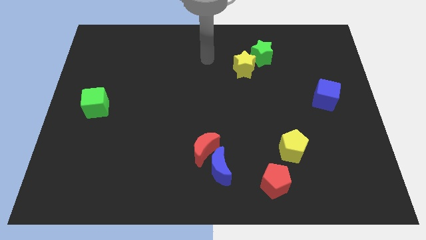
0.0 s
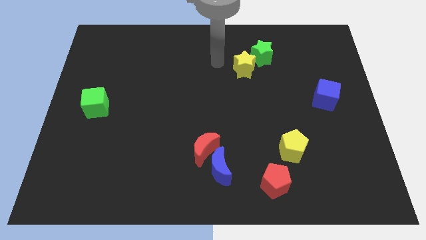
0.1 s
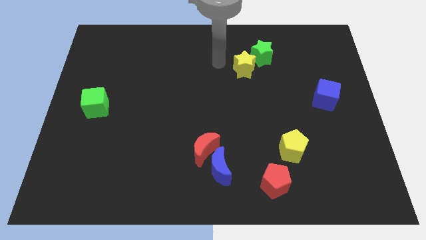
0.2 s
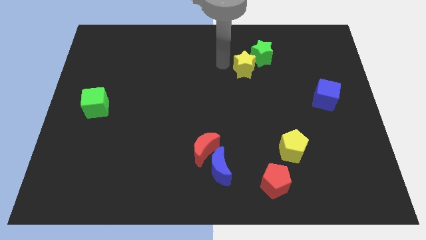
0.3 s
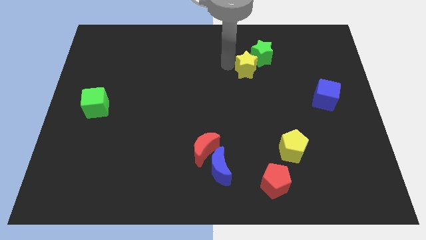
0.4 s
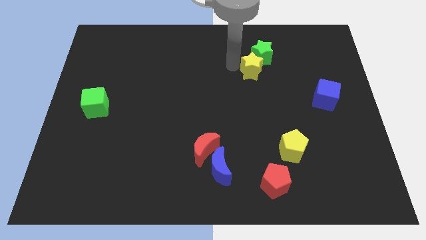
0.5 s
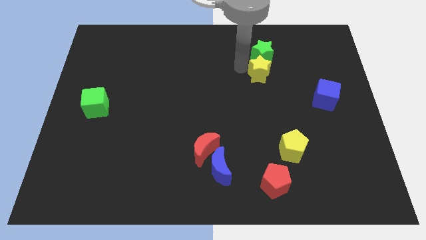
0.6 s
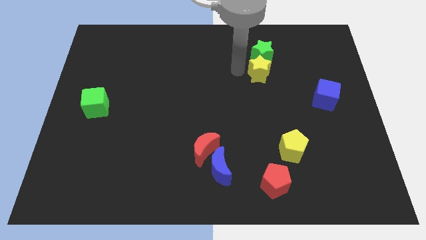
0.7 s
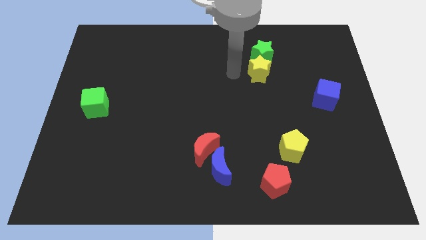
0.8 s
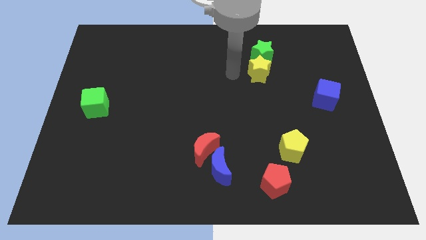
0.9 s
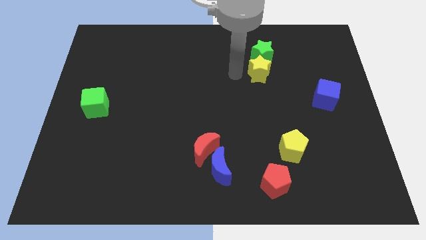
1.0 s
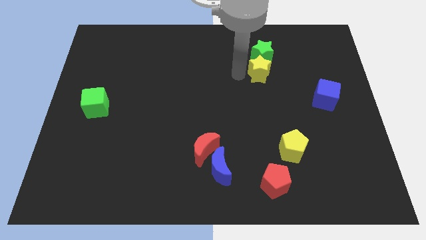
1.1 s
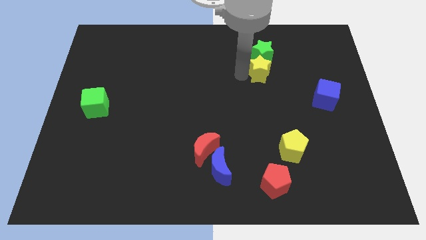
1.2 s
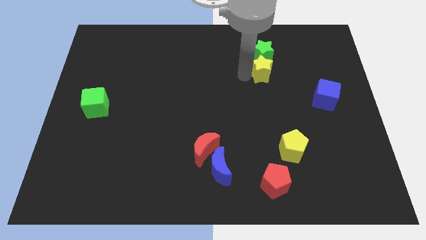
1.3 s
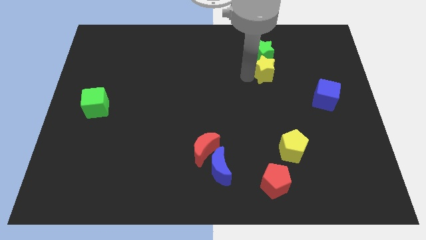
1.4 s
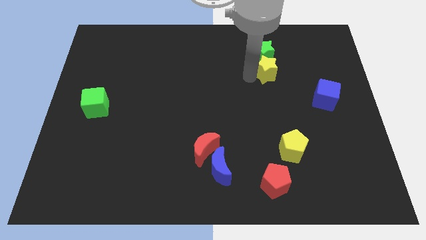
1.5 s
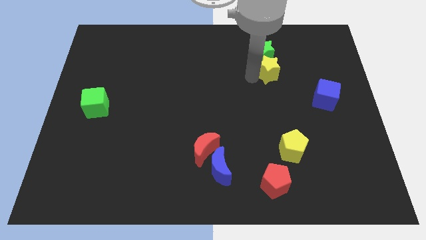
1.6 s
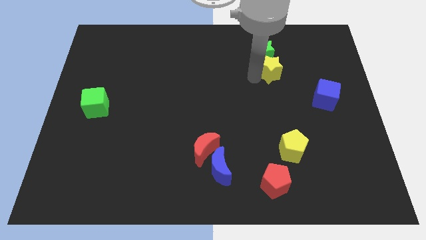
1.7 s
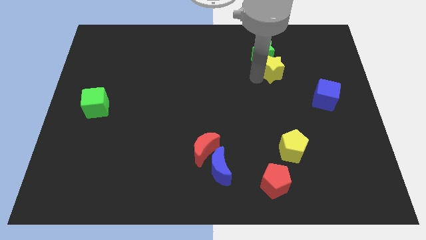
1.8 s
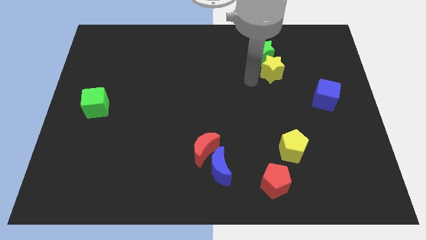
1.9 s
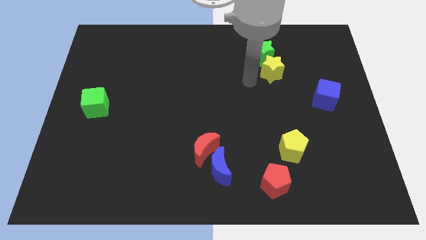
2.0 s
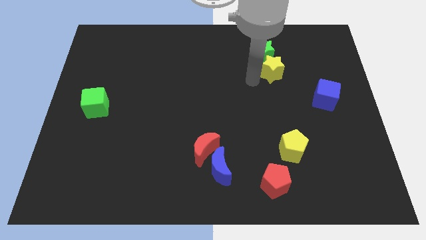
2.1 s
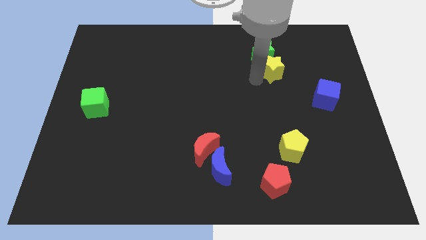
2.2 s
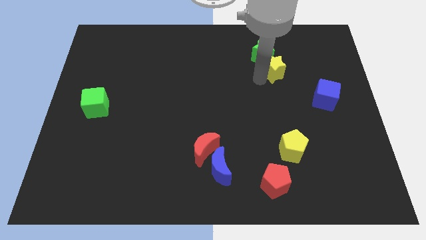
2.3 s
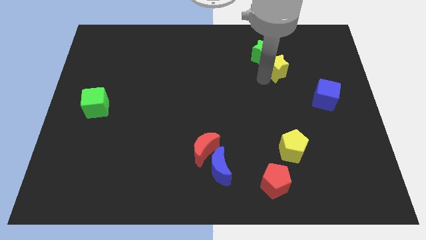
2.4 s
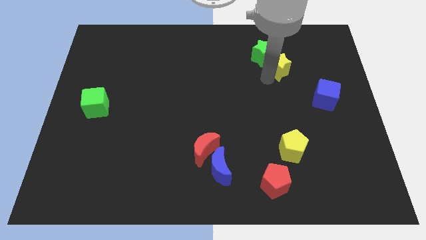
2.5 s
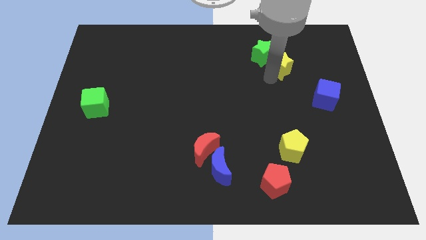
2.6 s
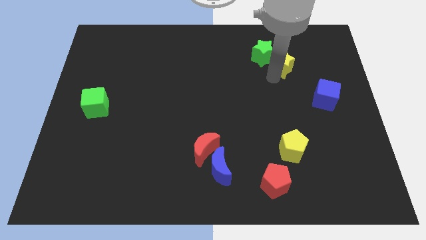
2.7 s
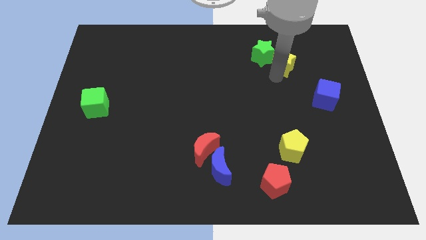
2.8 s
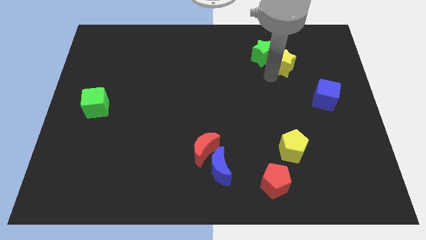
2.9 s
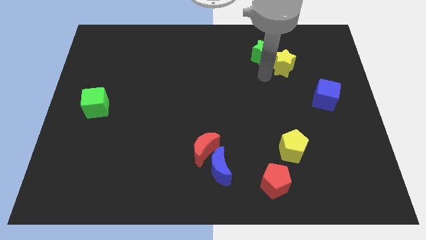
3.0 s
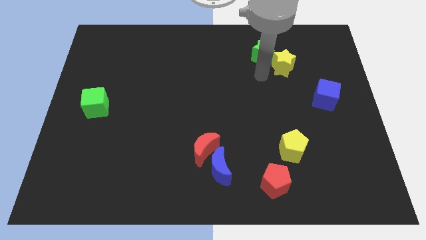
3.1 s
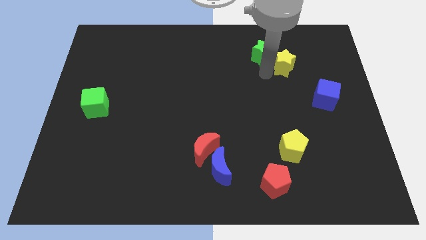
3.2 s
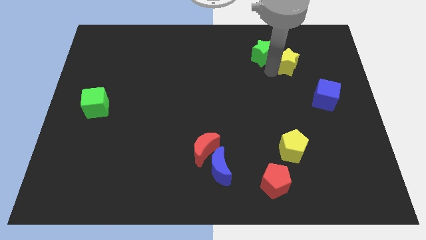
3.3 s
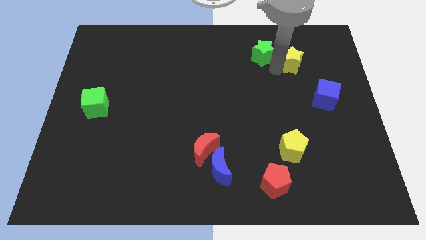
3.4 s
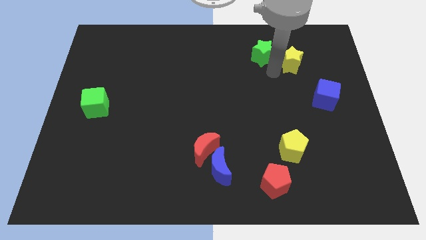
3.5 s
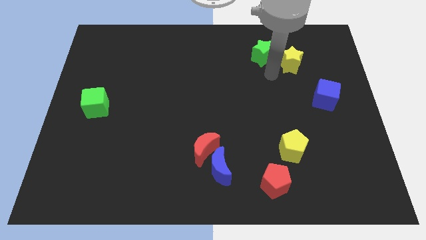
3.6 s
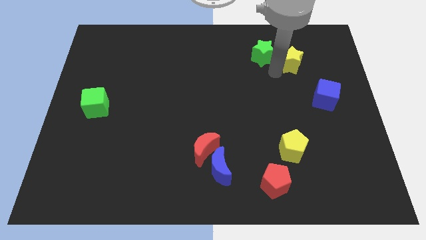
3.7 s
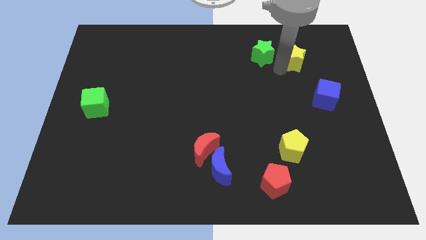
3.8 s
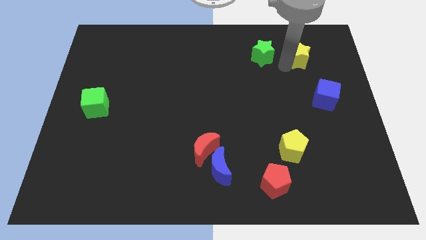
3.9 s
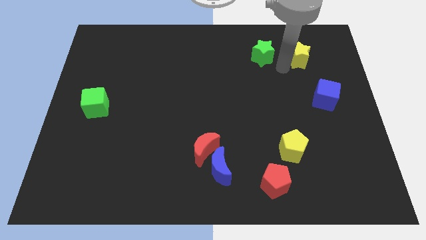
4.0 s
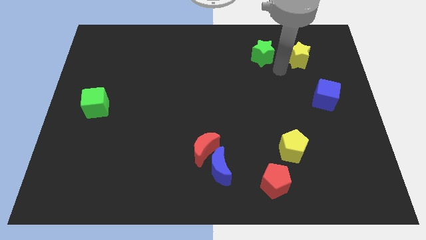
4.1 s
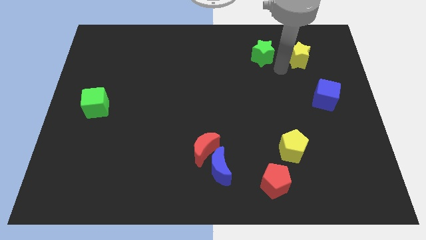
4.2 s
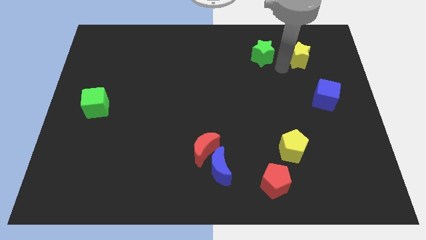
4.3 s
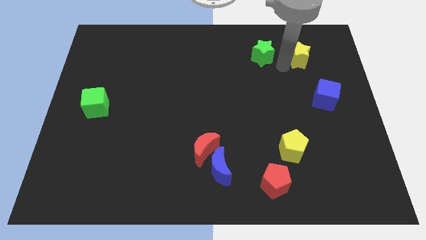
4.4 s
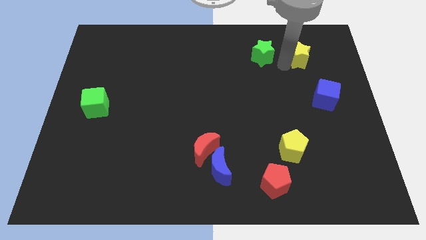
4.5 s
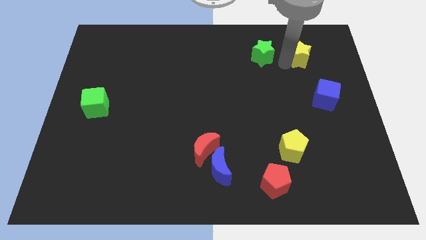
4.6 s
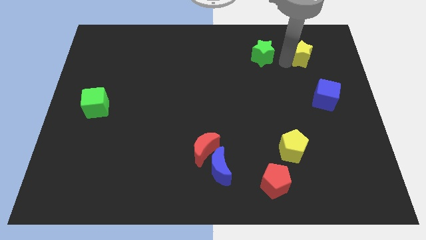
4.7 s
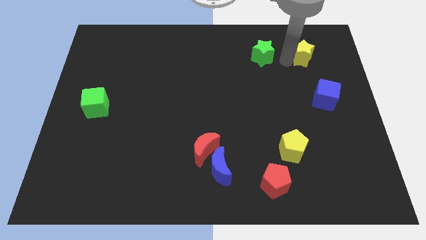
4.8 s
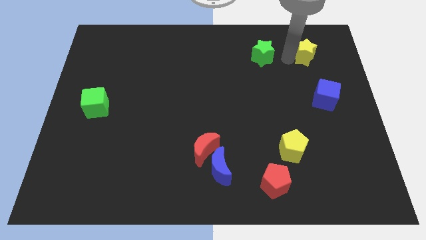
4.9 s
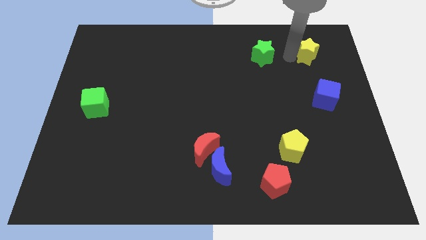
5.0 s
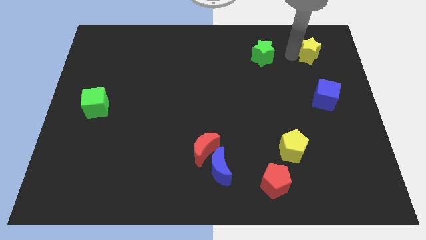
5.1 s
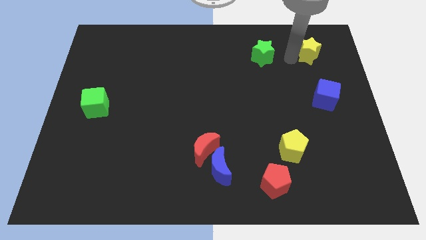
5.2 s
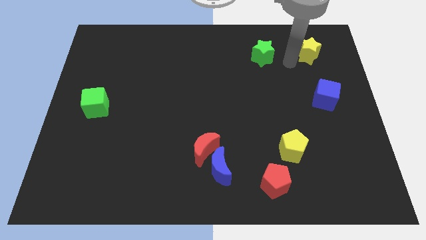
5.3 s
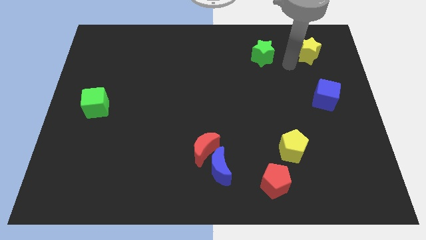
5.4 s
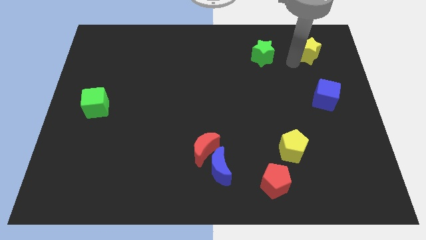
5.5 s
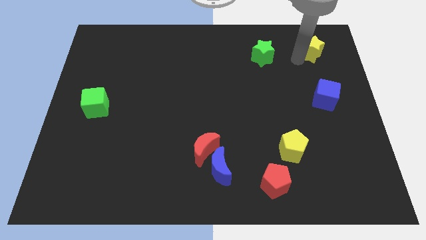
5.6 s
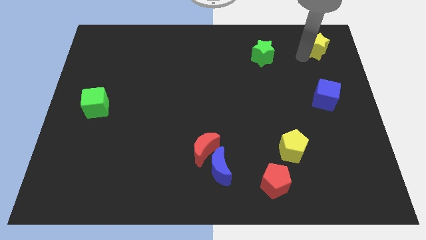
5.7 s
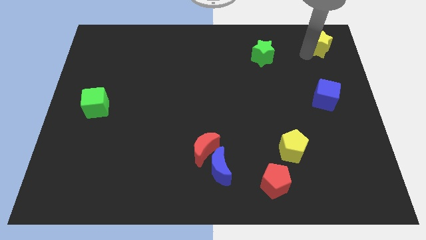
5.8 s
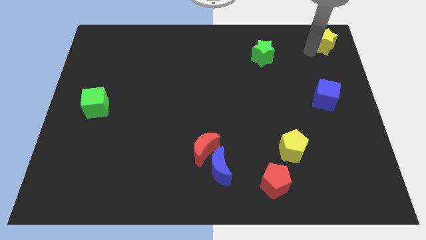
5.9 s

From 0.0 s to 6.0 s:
push the yellow star to the top right of the board

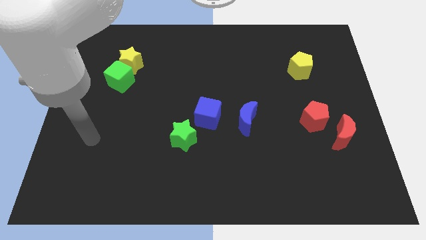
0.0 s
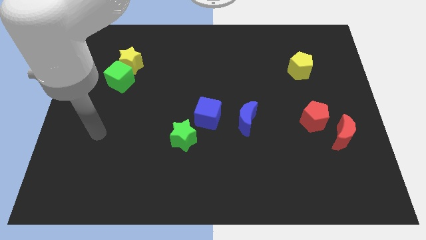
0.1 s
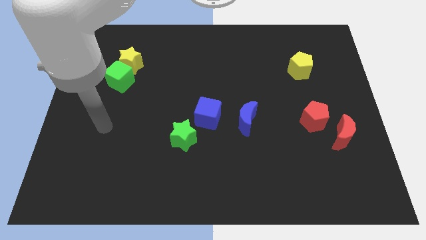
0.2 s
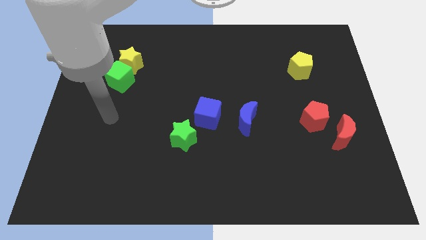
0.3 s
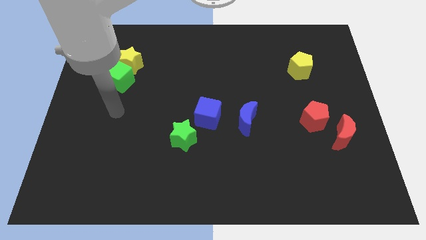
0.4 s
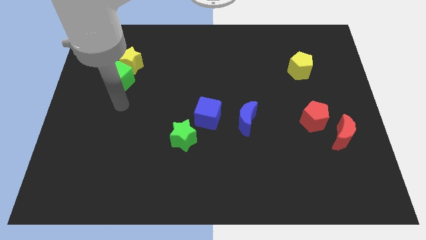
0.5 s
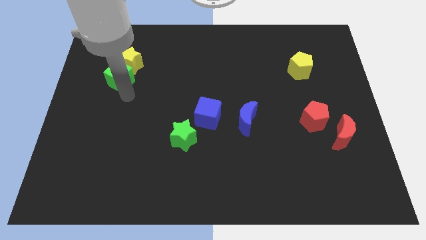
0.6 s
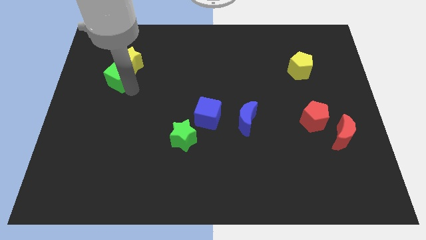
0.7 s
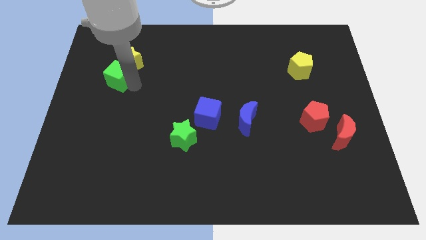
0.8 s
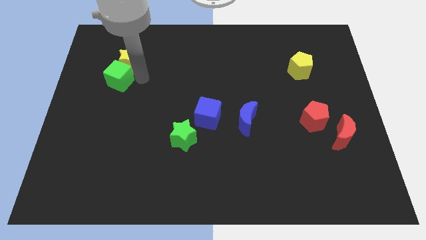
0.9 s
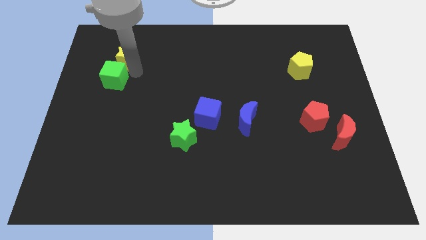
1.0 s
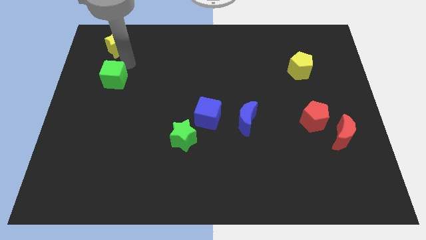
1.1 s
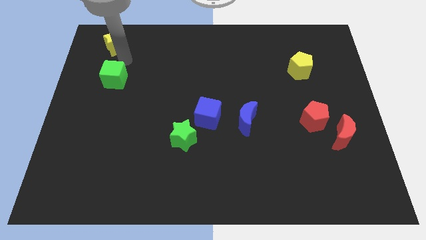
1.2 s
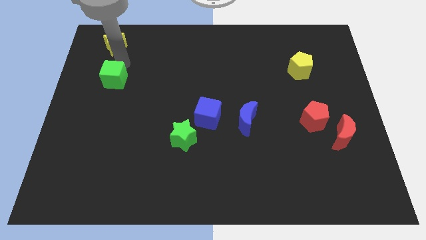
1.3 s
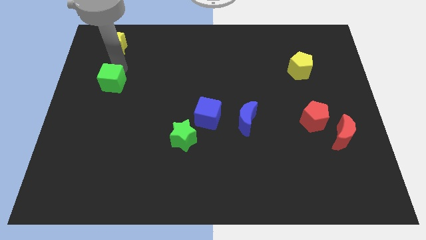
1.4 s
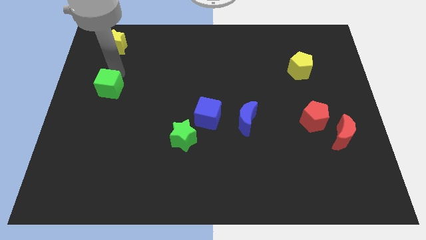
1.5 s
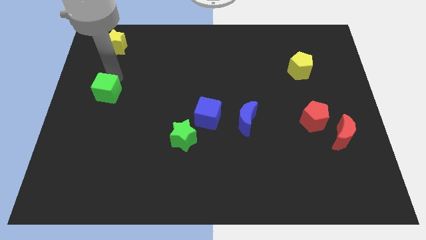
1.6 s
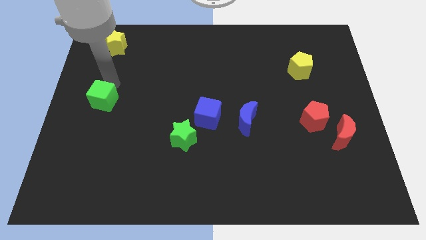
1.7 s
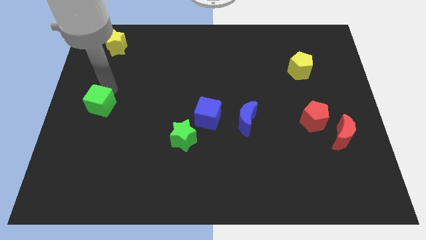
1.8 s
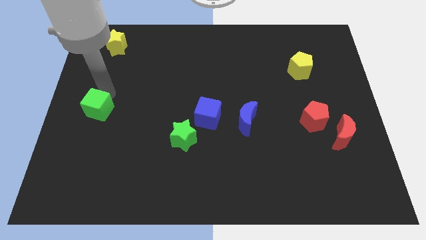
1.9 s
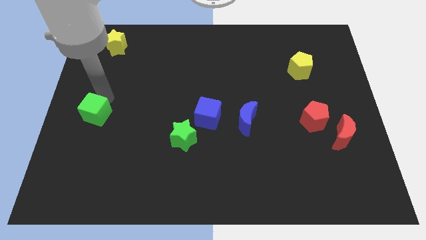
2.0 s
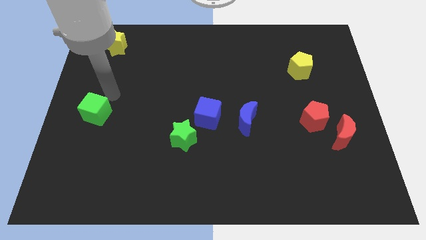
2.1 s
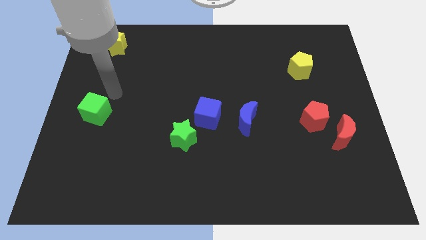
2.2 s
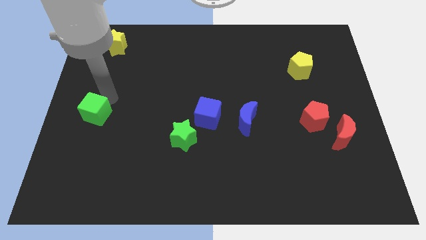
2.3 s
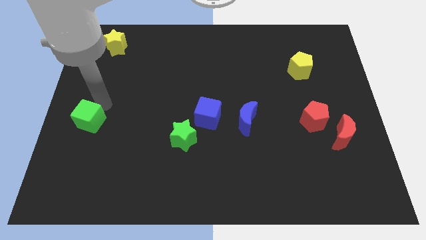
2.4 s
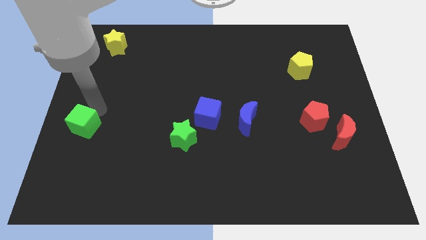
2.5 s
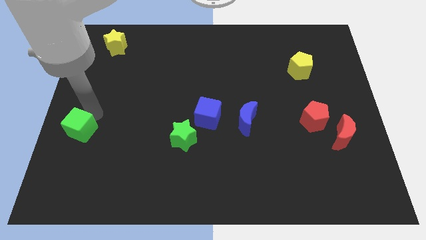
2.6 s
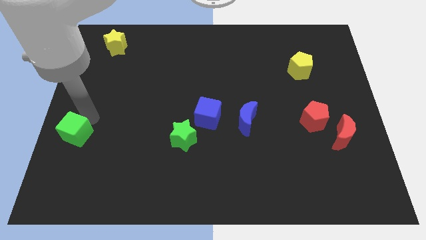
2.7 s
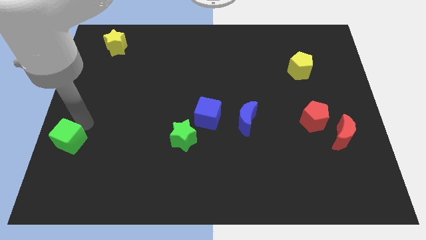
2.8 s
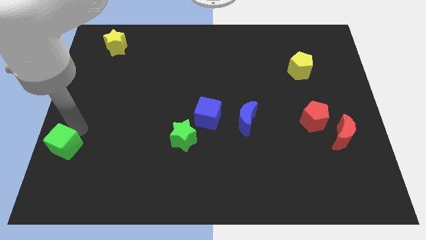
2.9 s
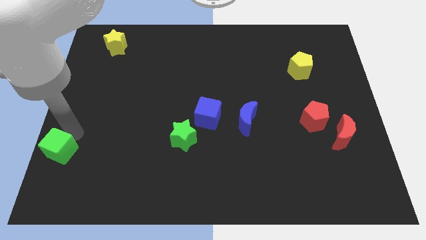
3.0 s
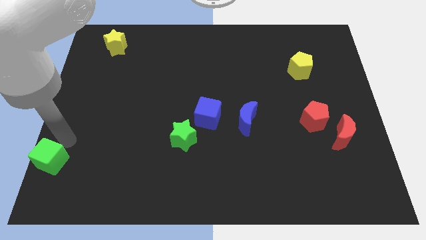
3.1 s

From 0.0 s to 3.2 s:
move the green cube to the lower left corner
